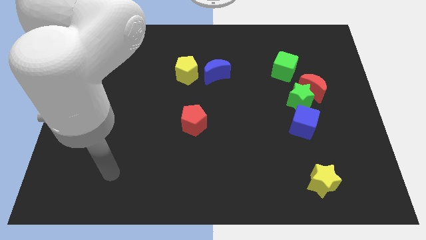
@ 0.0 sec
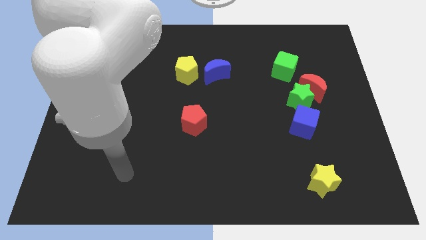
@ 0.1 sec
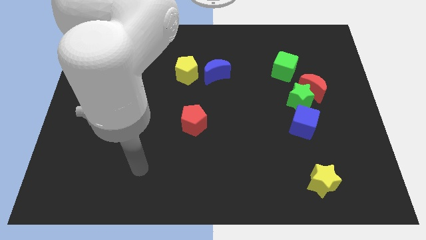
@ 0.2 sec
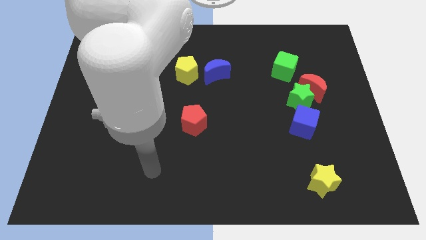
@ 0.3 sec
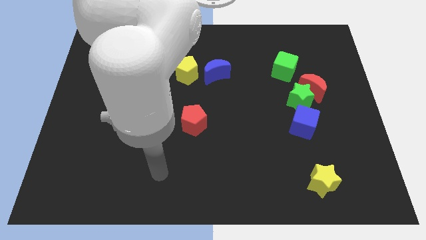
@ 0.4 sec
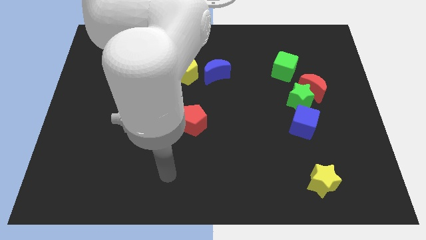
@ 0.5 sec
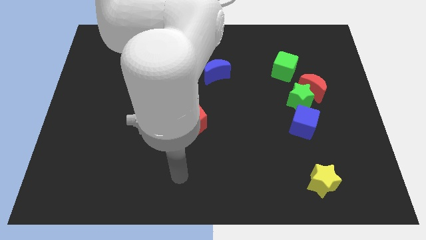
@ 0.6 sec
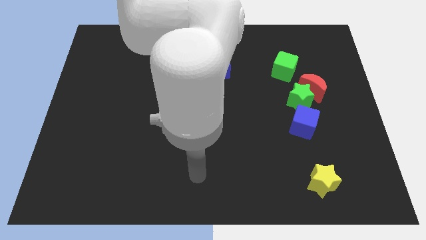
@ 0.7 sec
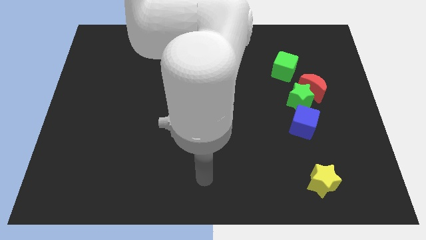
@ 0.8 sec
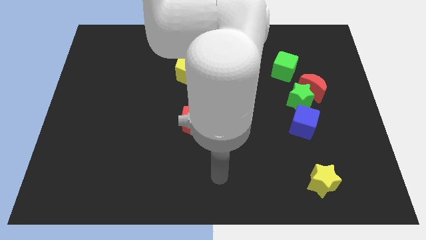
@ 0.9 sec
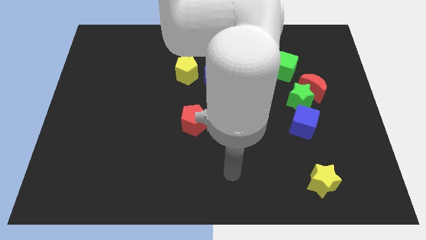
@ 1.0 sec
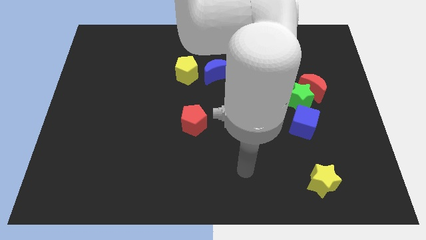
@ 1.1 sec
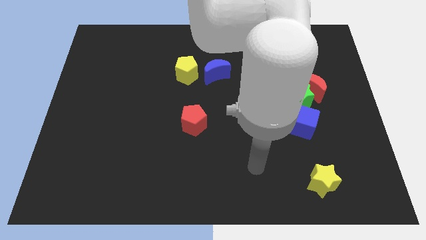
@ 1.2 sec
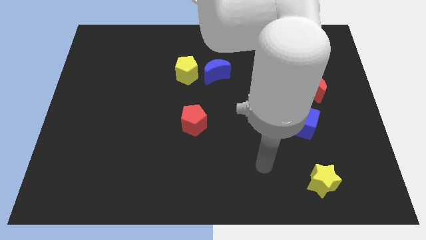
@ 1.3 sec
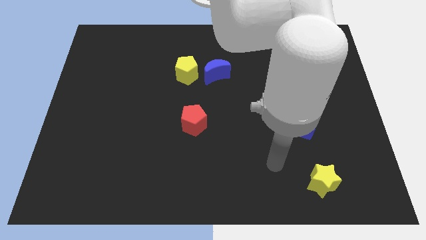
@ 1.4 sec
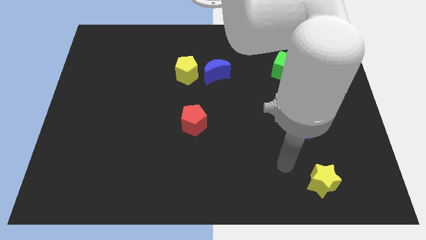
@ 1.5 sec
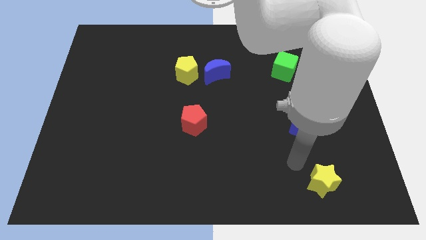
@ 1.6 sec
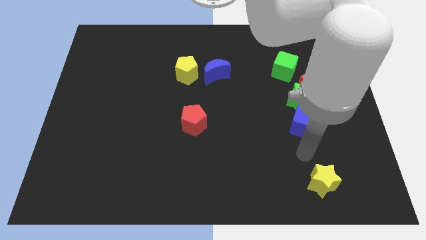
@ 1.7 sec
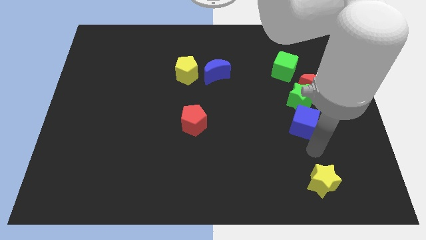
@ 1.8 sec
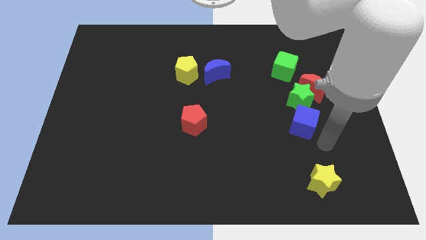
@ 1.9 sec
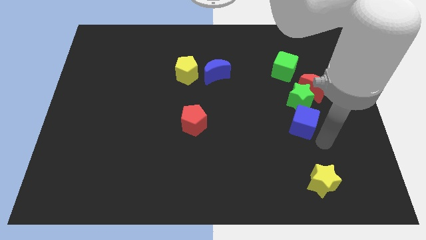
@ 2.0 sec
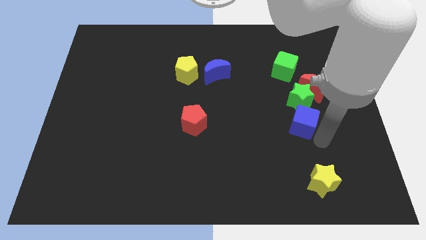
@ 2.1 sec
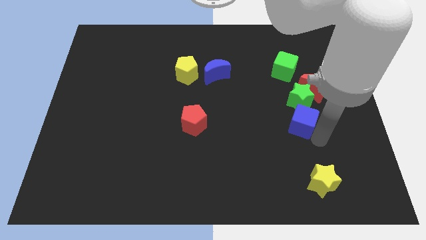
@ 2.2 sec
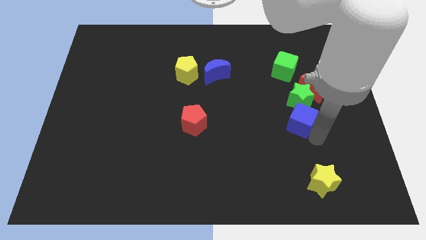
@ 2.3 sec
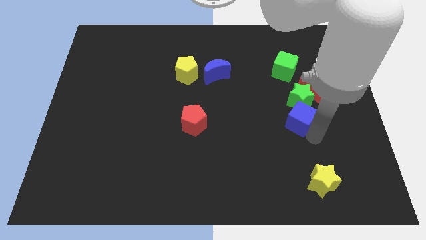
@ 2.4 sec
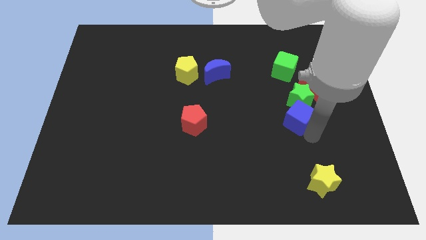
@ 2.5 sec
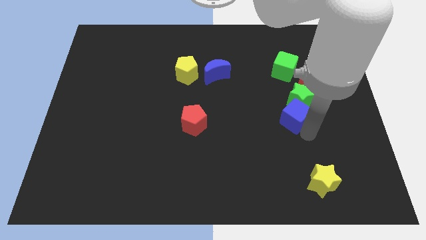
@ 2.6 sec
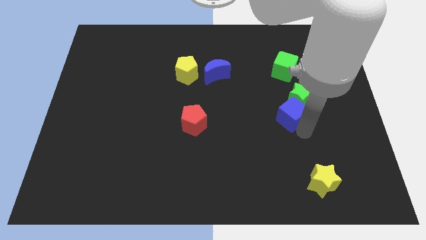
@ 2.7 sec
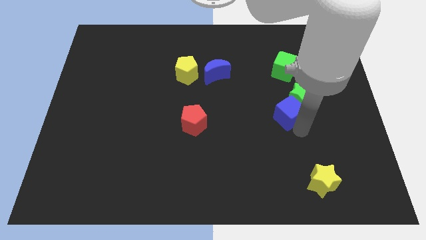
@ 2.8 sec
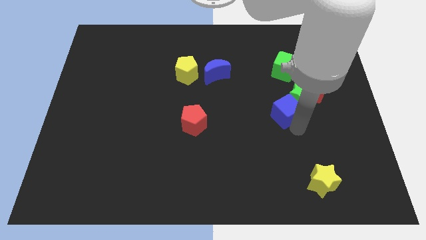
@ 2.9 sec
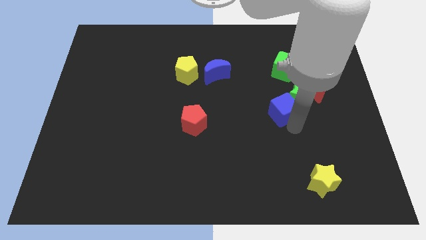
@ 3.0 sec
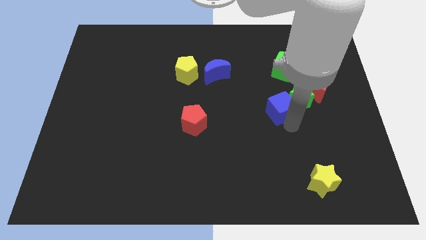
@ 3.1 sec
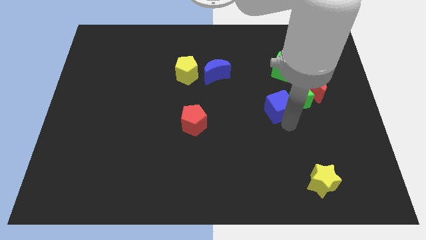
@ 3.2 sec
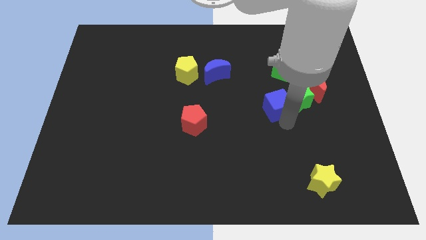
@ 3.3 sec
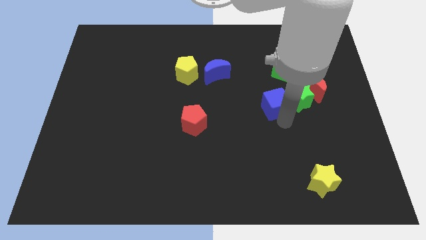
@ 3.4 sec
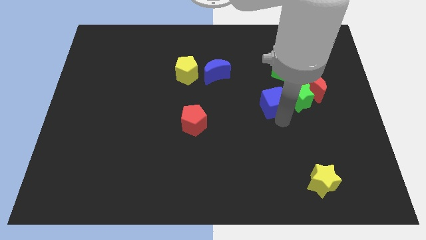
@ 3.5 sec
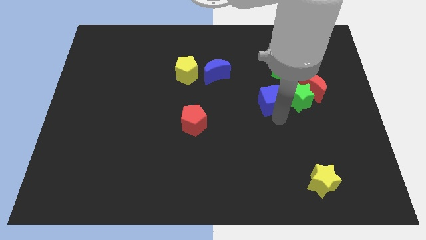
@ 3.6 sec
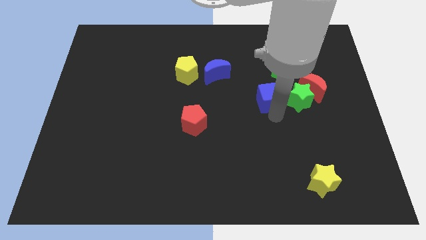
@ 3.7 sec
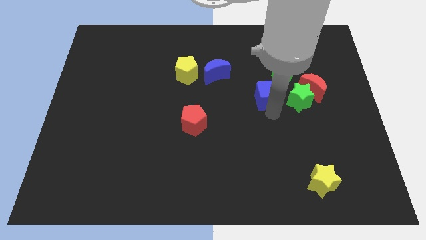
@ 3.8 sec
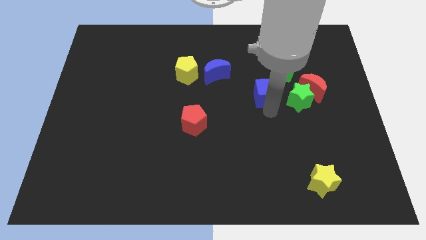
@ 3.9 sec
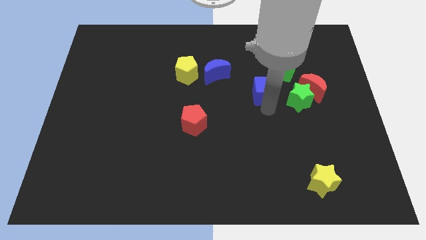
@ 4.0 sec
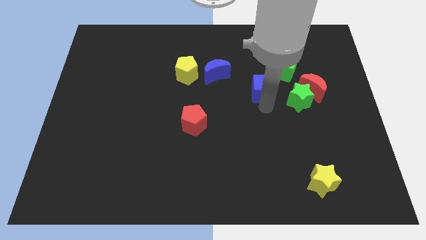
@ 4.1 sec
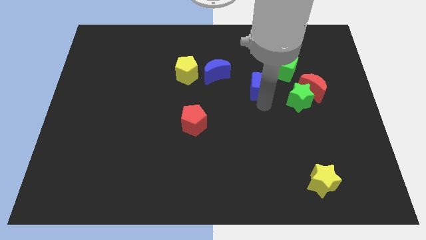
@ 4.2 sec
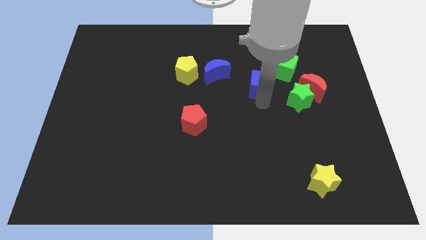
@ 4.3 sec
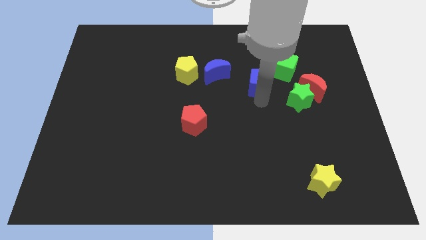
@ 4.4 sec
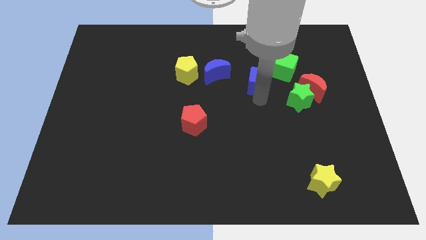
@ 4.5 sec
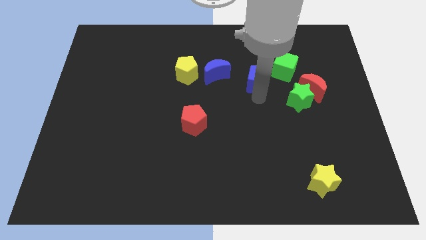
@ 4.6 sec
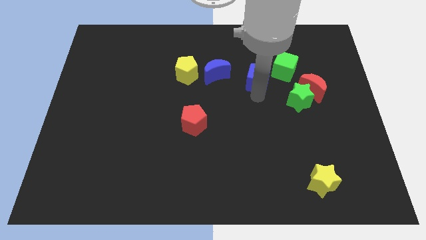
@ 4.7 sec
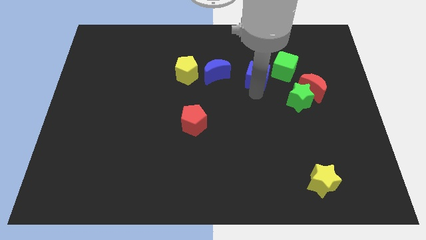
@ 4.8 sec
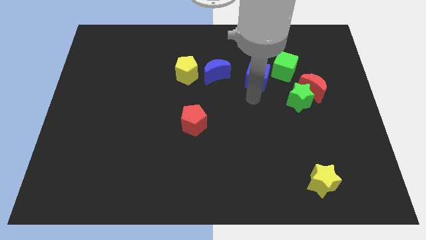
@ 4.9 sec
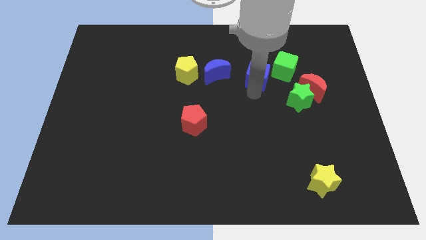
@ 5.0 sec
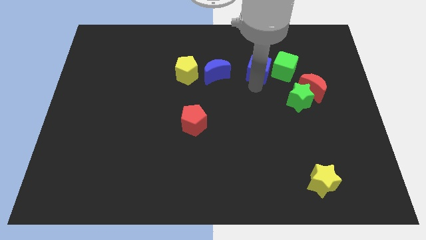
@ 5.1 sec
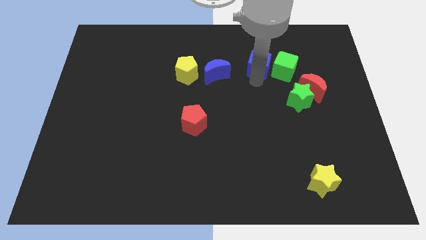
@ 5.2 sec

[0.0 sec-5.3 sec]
put the blue cube diagonally up and to the left of the green cube

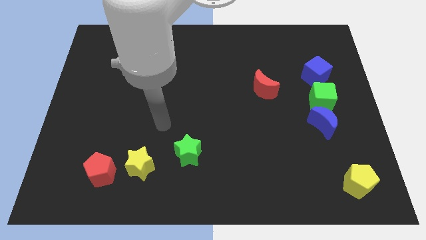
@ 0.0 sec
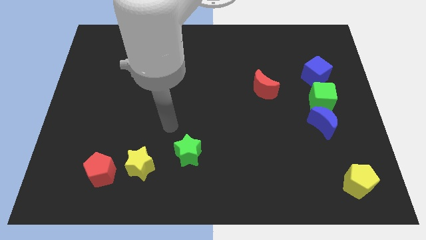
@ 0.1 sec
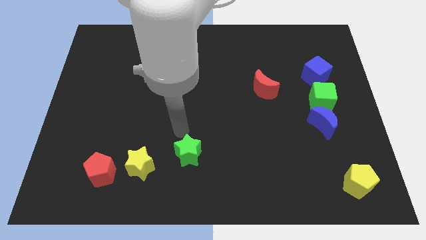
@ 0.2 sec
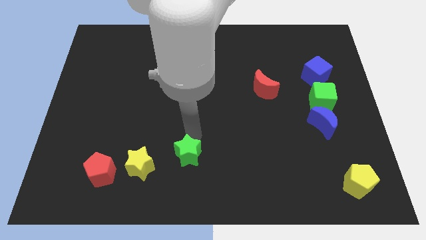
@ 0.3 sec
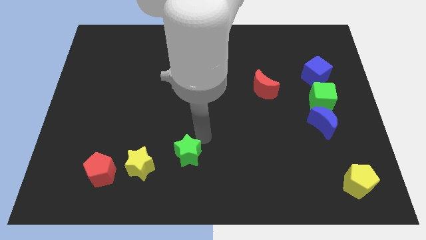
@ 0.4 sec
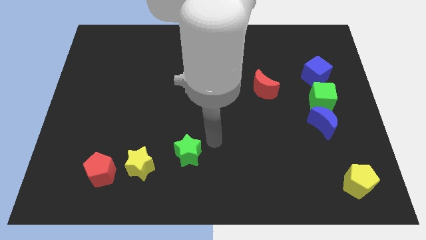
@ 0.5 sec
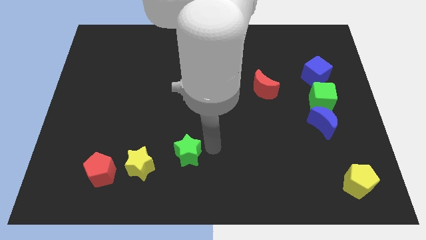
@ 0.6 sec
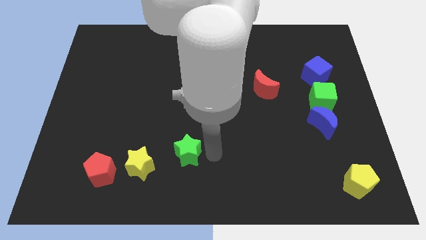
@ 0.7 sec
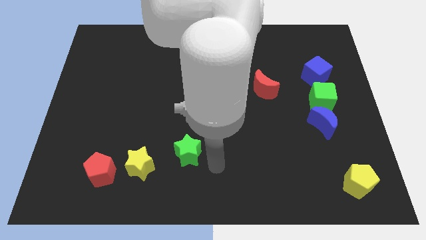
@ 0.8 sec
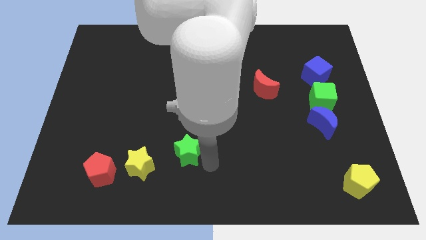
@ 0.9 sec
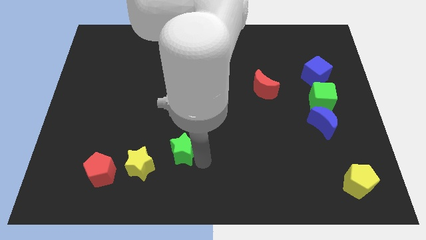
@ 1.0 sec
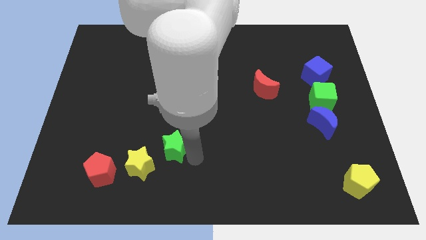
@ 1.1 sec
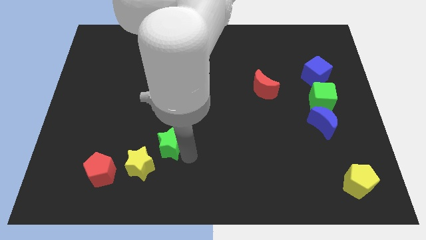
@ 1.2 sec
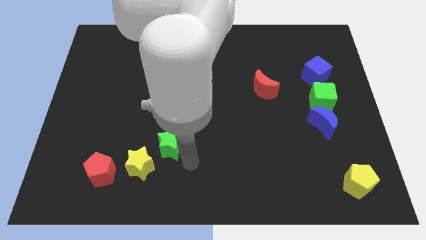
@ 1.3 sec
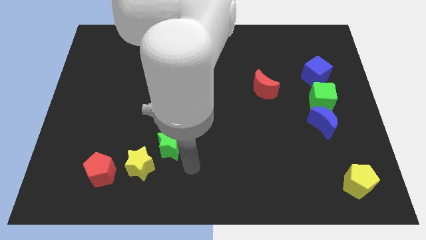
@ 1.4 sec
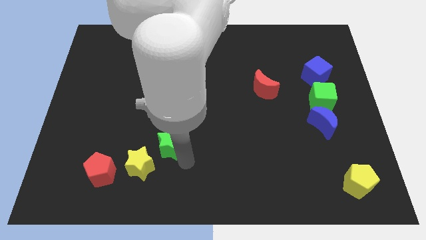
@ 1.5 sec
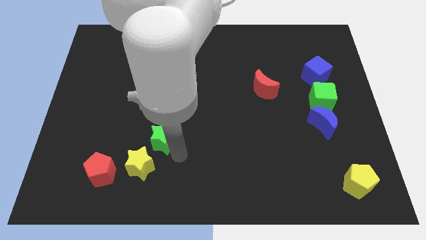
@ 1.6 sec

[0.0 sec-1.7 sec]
move the green star above the yellow star
